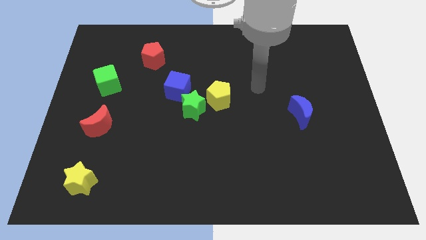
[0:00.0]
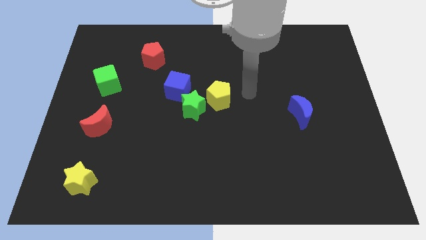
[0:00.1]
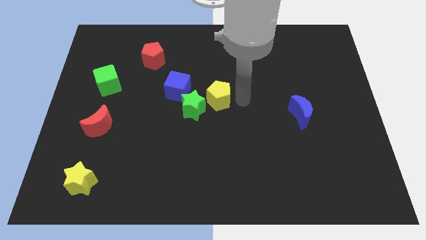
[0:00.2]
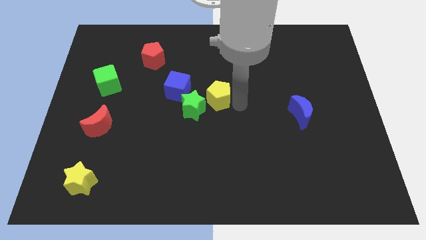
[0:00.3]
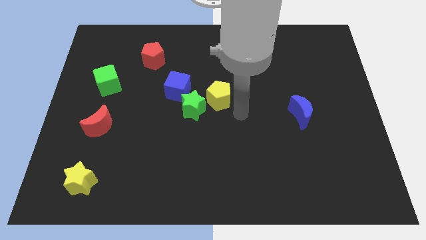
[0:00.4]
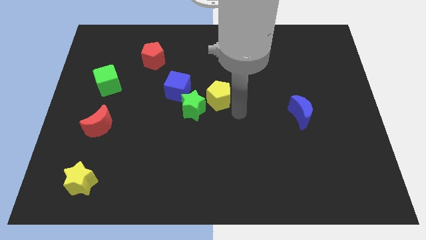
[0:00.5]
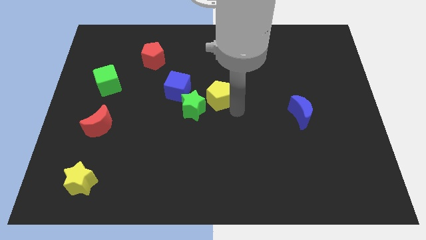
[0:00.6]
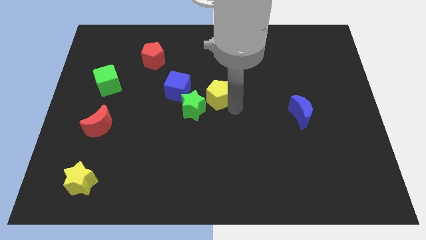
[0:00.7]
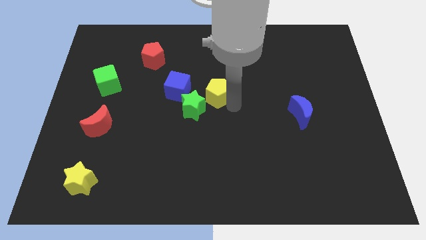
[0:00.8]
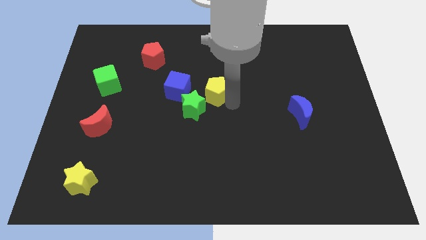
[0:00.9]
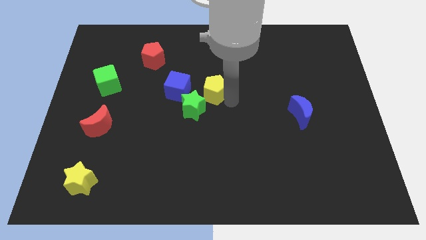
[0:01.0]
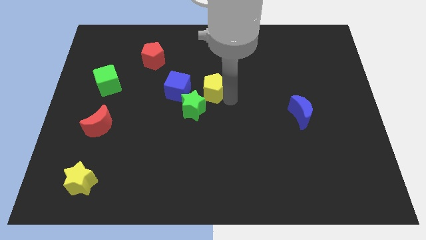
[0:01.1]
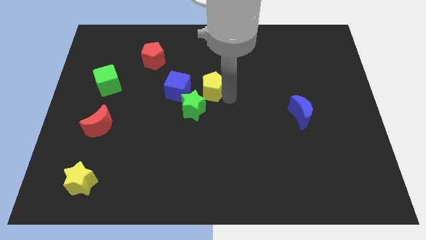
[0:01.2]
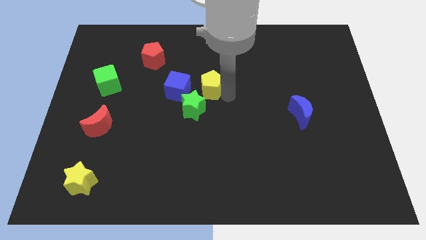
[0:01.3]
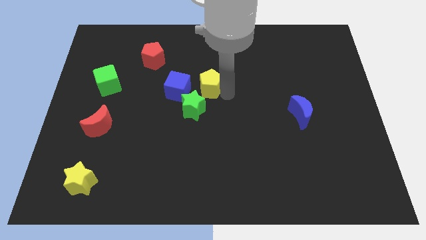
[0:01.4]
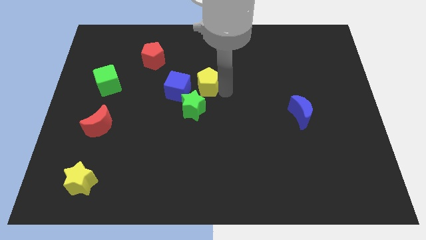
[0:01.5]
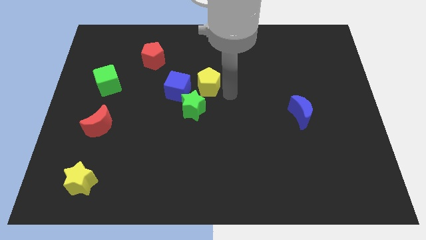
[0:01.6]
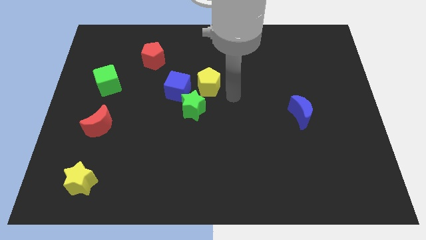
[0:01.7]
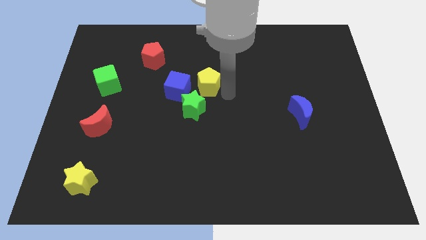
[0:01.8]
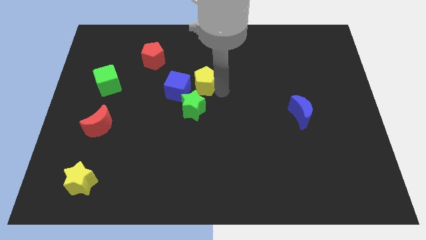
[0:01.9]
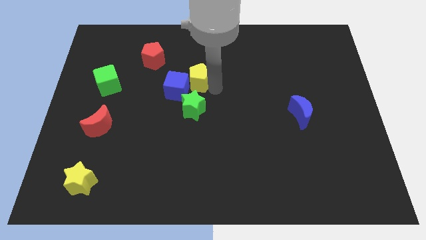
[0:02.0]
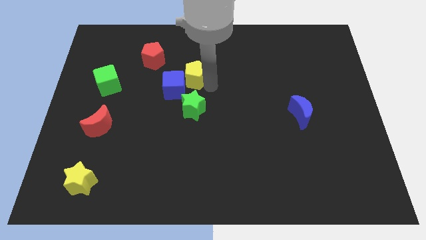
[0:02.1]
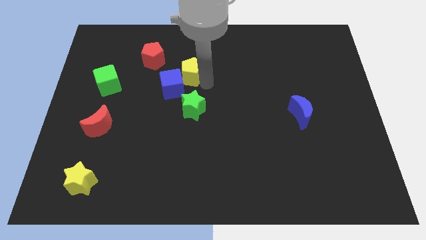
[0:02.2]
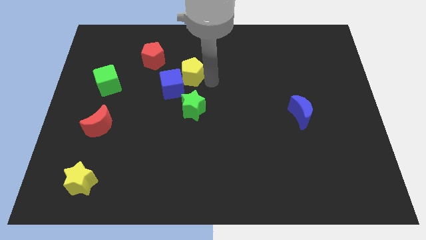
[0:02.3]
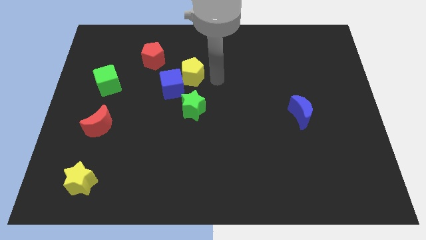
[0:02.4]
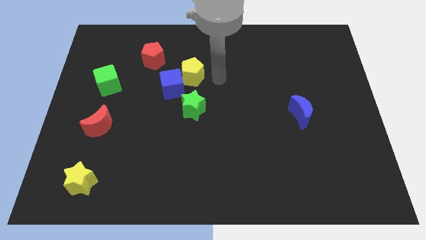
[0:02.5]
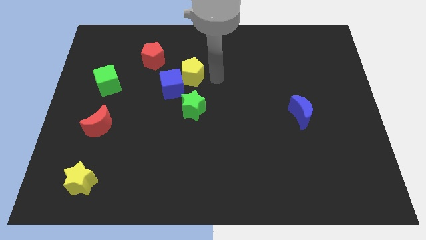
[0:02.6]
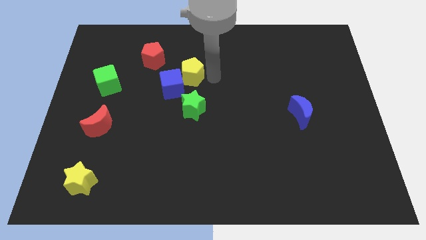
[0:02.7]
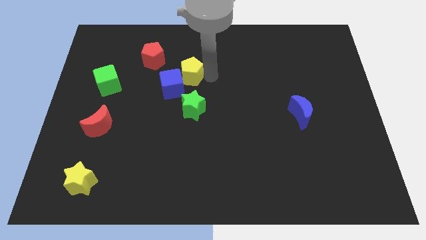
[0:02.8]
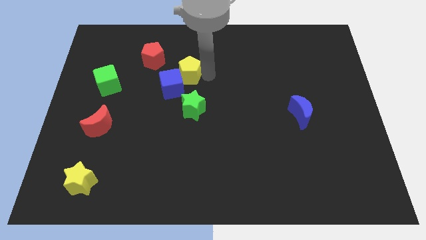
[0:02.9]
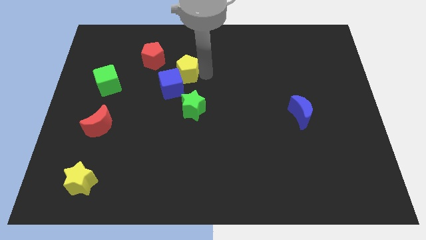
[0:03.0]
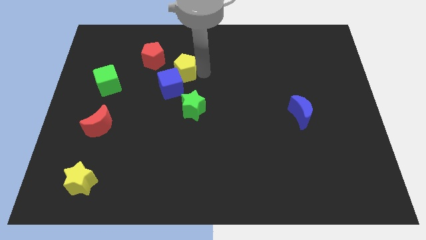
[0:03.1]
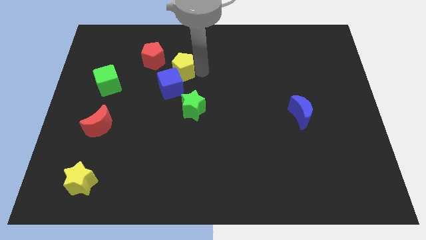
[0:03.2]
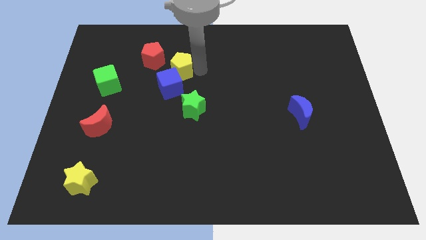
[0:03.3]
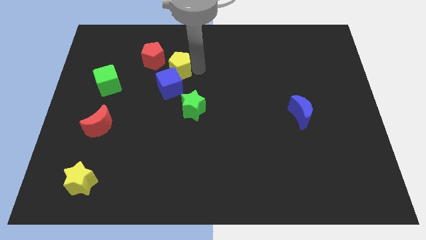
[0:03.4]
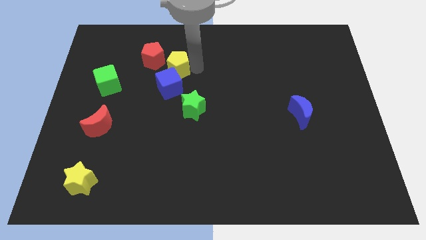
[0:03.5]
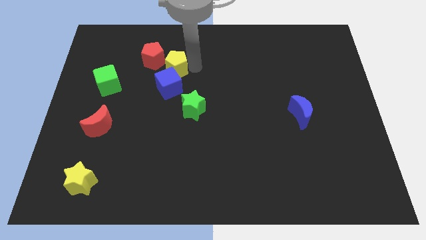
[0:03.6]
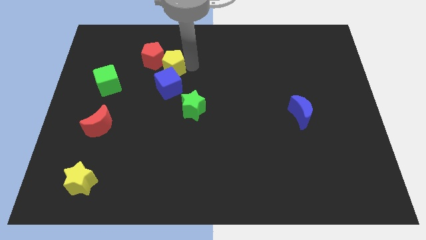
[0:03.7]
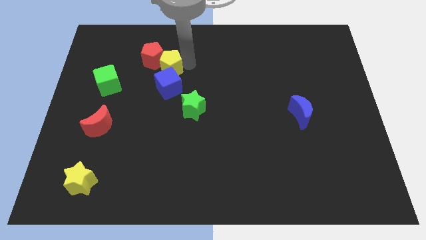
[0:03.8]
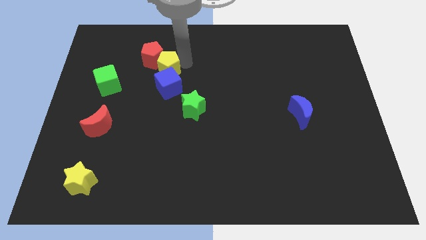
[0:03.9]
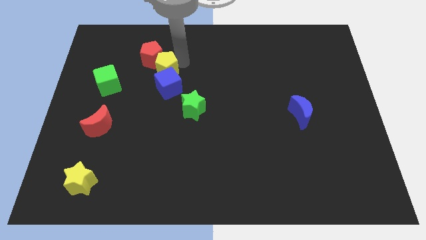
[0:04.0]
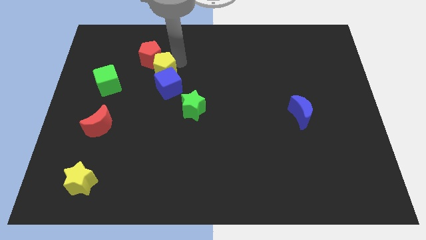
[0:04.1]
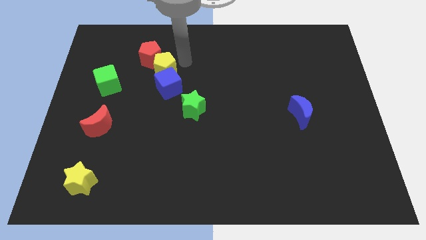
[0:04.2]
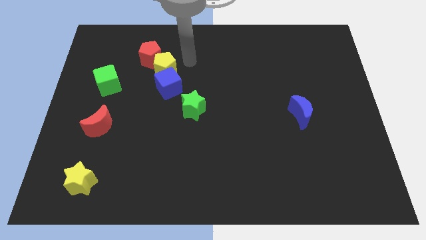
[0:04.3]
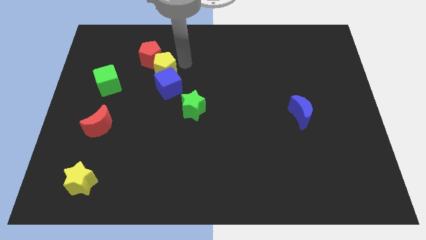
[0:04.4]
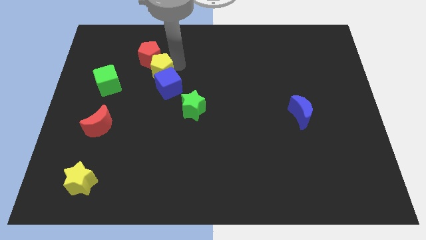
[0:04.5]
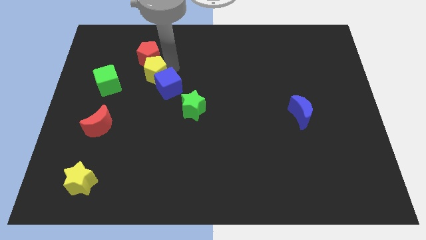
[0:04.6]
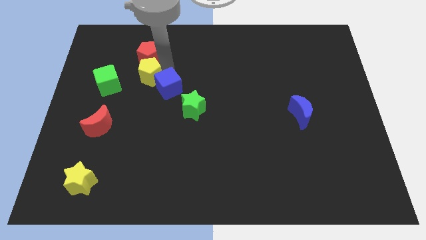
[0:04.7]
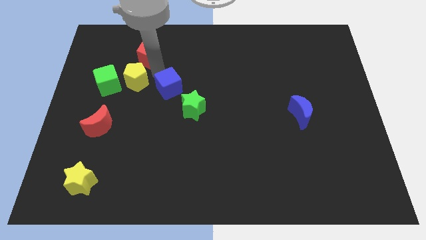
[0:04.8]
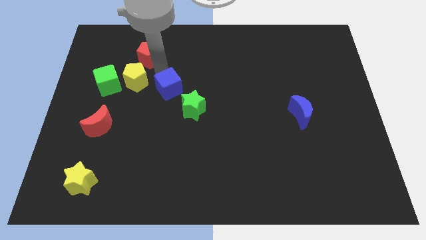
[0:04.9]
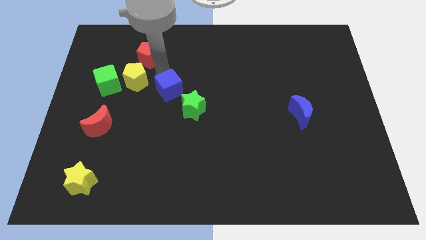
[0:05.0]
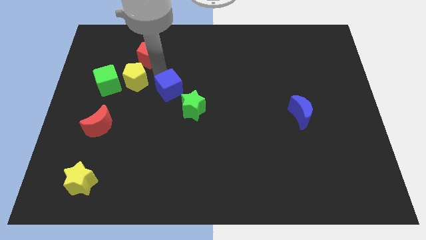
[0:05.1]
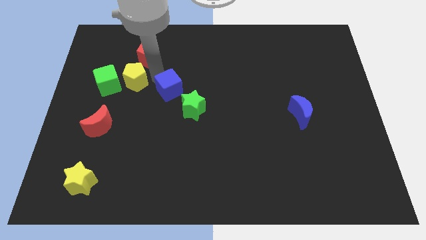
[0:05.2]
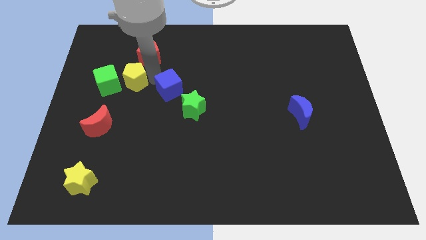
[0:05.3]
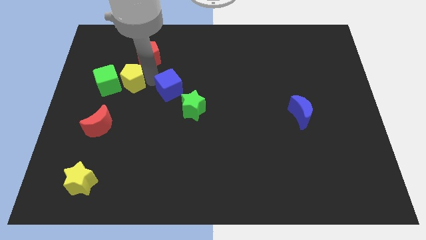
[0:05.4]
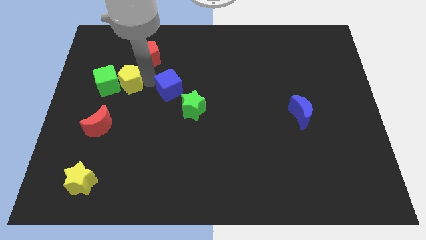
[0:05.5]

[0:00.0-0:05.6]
move the yellow pentagon towards the green cube

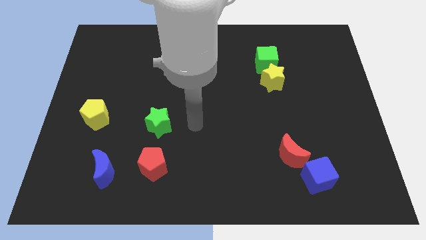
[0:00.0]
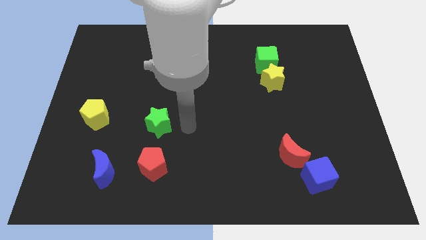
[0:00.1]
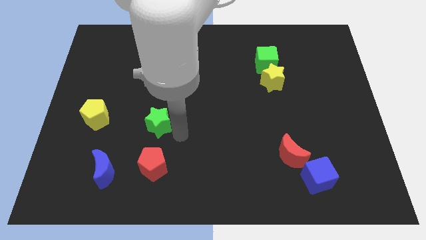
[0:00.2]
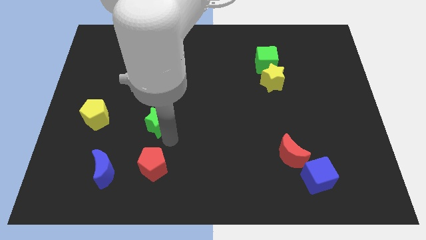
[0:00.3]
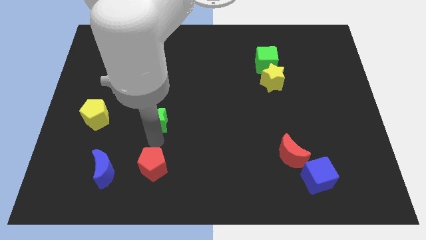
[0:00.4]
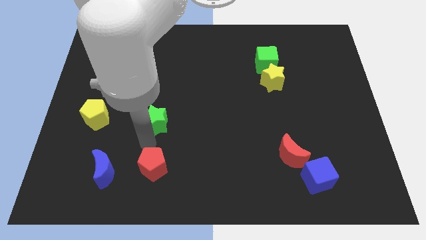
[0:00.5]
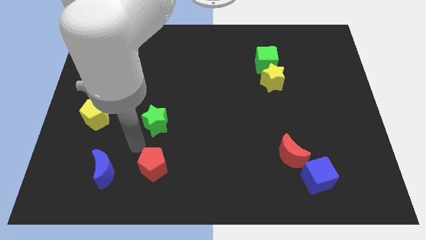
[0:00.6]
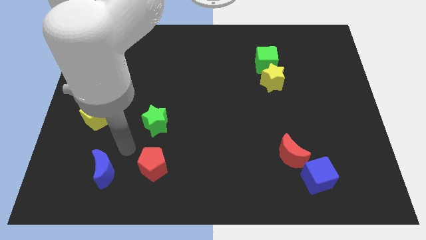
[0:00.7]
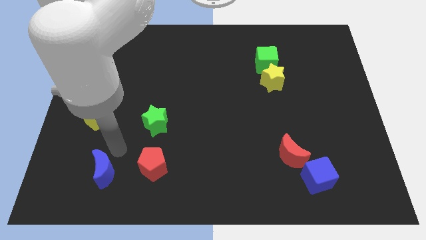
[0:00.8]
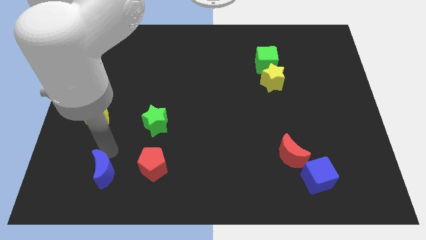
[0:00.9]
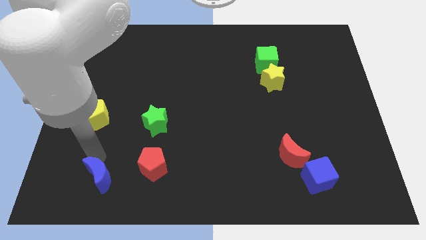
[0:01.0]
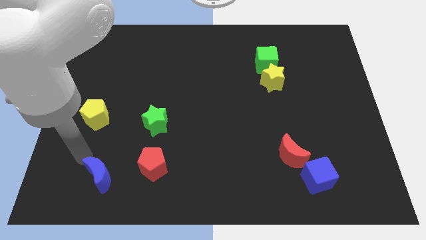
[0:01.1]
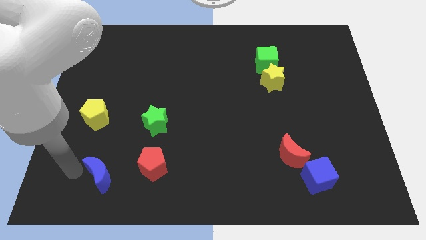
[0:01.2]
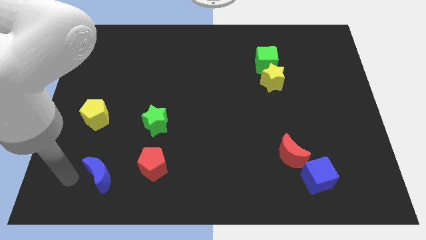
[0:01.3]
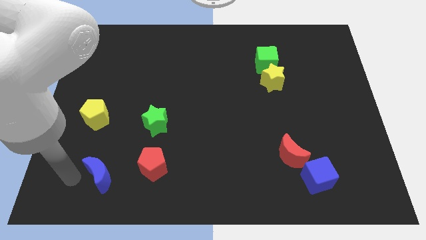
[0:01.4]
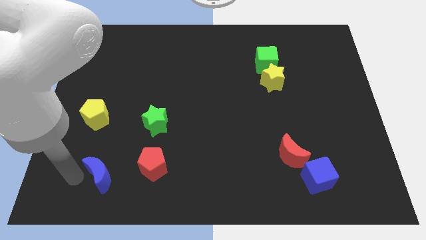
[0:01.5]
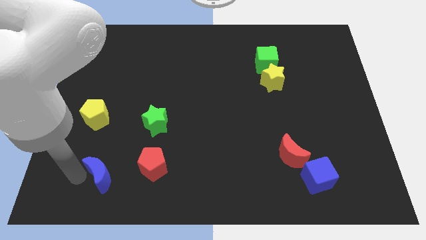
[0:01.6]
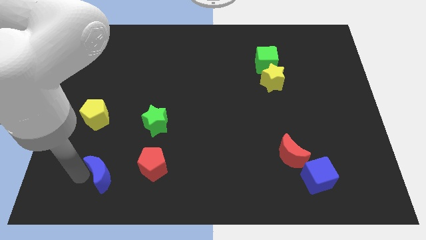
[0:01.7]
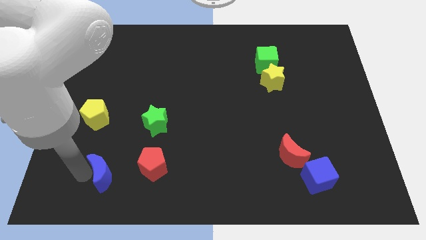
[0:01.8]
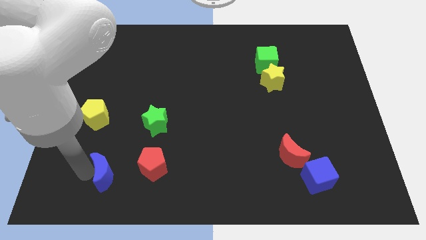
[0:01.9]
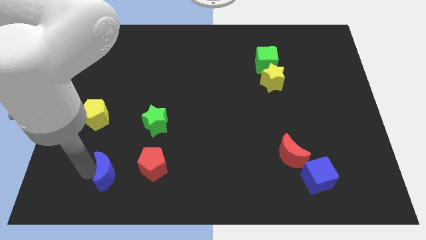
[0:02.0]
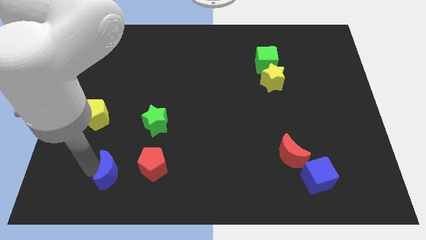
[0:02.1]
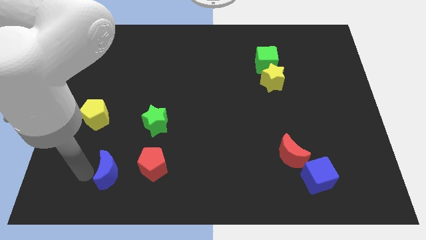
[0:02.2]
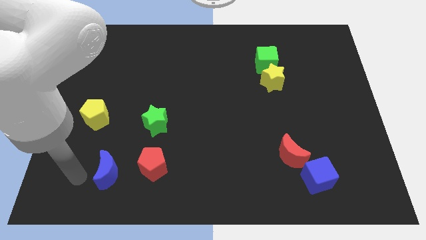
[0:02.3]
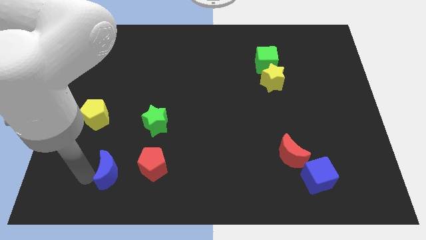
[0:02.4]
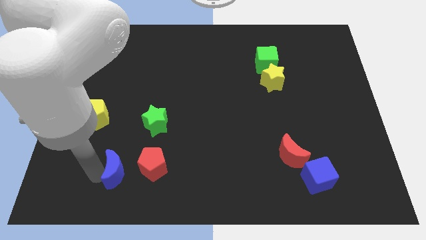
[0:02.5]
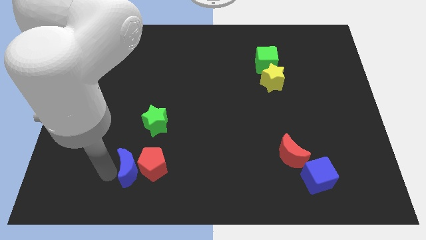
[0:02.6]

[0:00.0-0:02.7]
slide the blue moon next to the red pentagon
